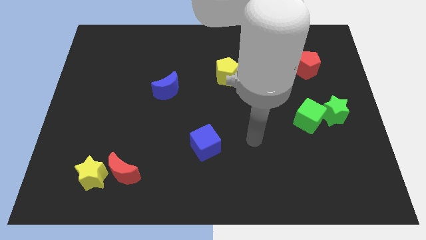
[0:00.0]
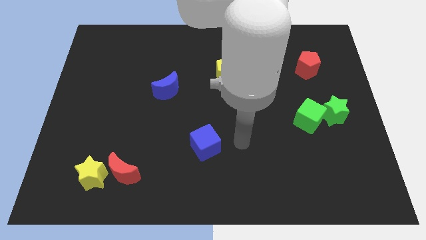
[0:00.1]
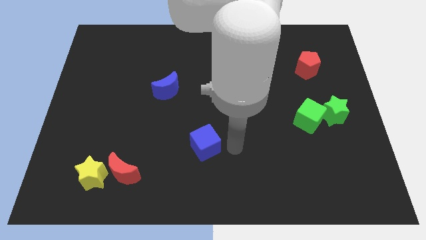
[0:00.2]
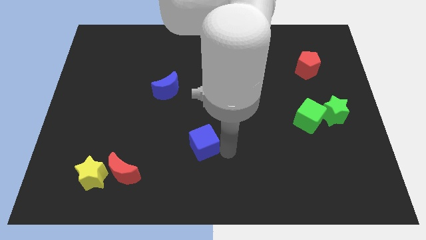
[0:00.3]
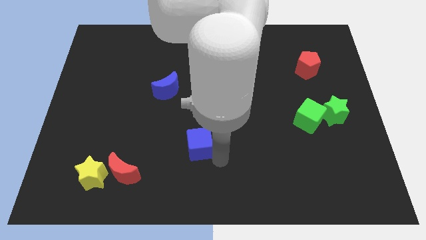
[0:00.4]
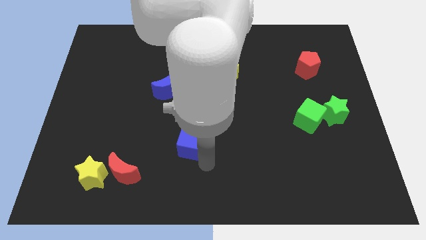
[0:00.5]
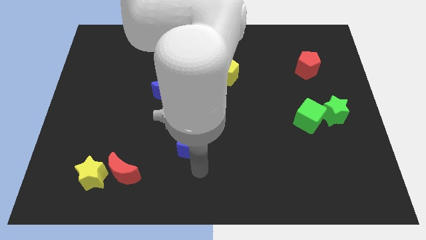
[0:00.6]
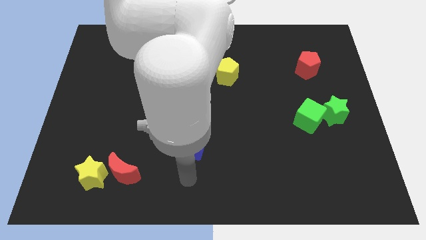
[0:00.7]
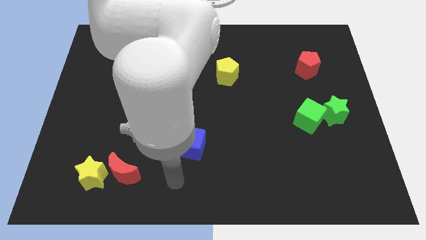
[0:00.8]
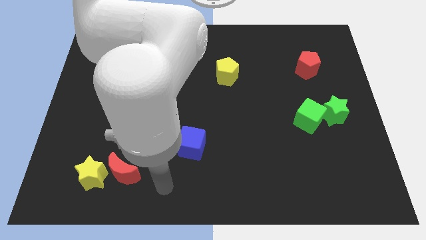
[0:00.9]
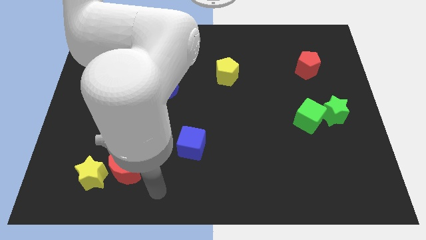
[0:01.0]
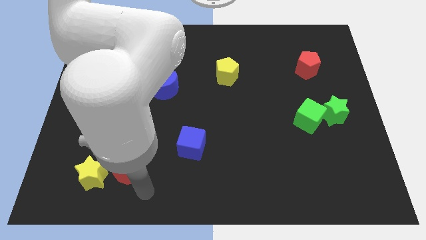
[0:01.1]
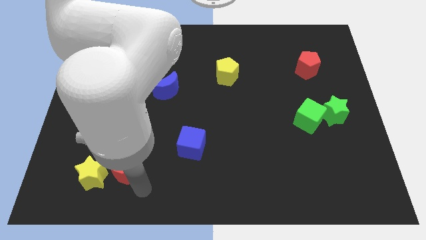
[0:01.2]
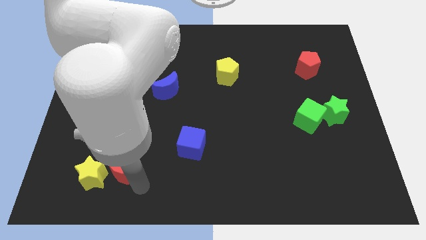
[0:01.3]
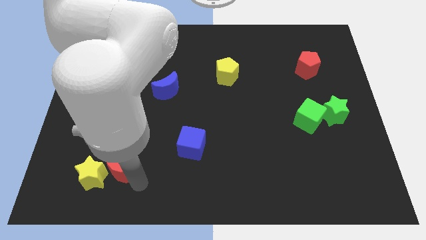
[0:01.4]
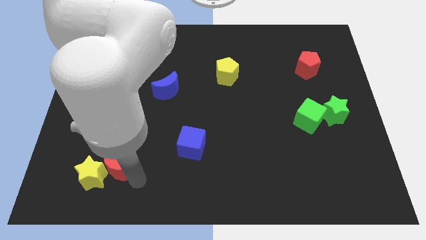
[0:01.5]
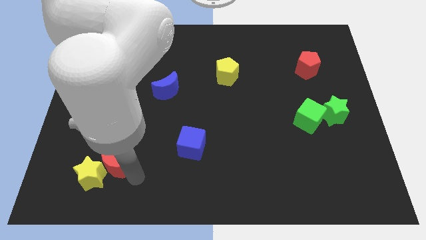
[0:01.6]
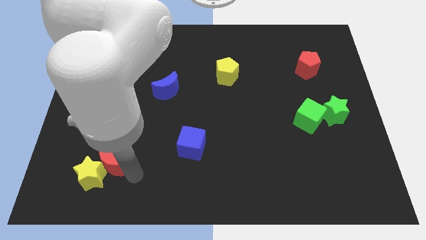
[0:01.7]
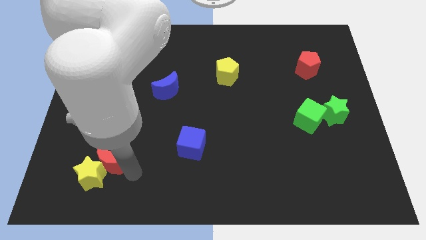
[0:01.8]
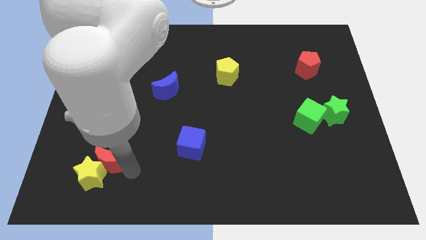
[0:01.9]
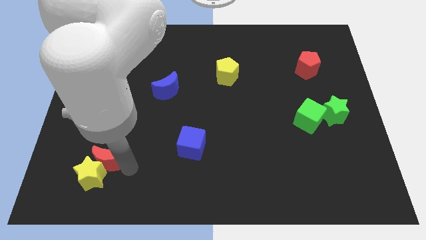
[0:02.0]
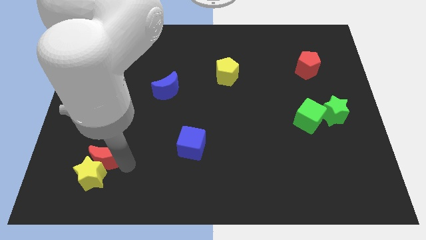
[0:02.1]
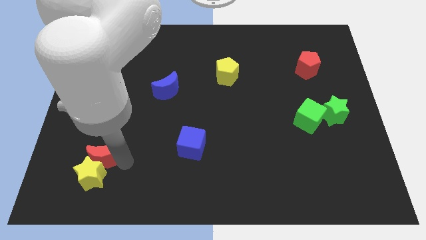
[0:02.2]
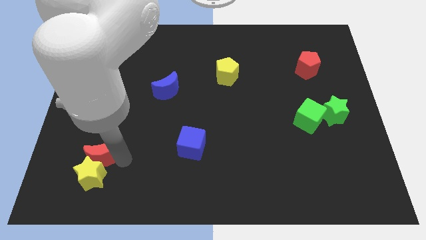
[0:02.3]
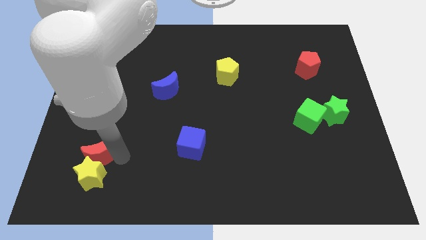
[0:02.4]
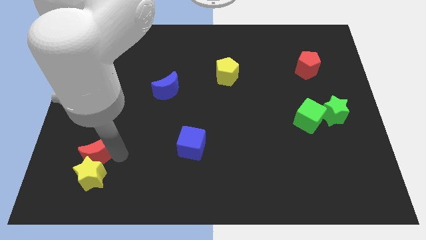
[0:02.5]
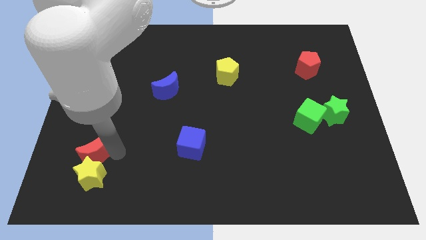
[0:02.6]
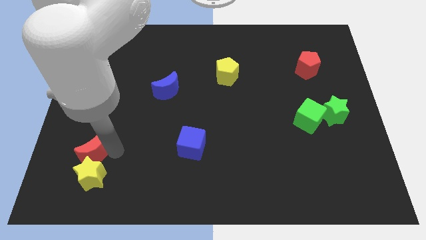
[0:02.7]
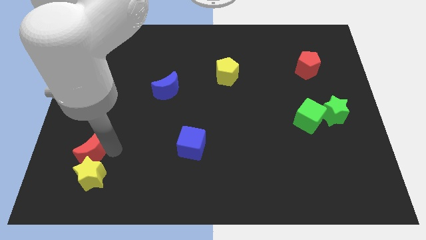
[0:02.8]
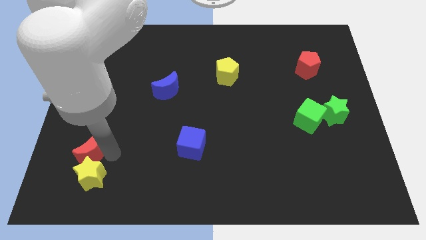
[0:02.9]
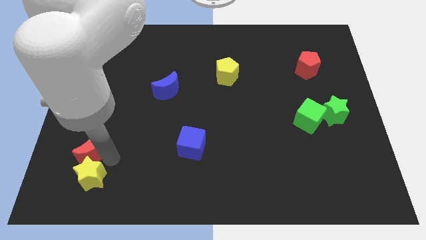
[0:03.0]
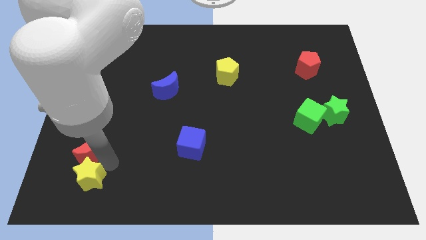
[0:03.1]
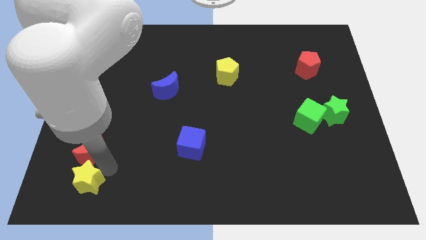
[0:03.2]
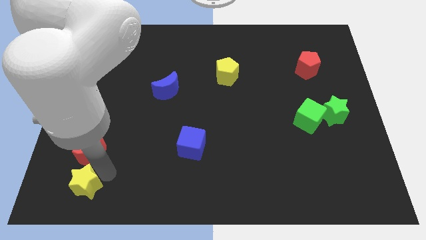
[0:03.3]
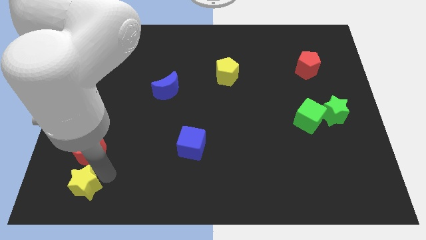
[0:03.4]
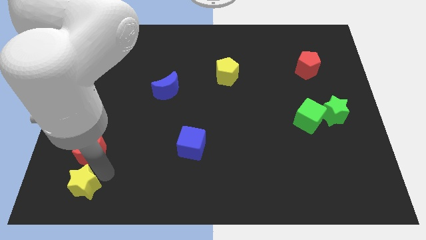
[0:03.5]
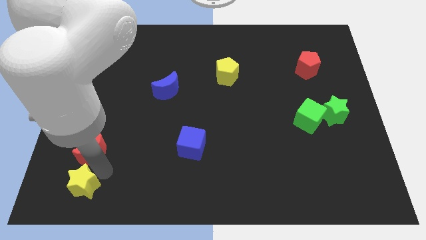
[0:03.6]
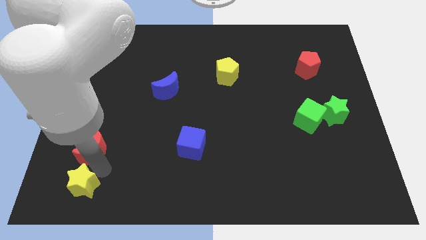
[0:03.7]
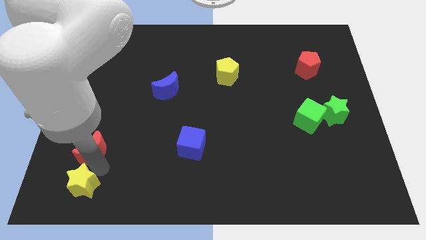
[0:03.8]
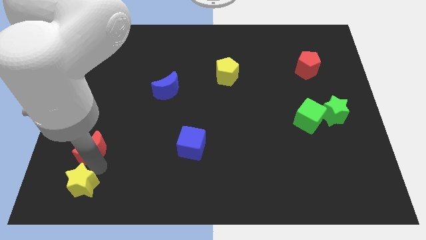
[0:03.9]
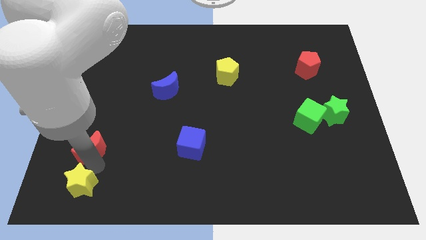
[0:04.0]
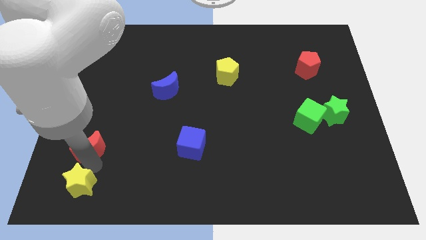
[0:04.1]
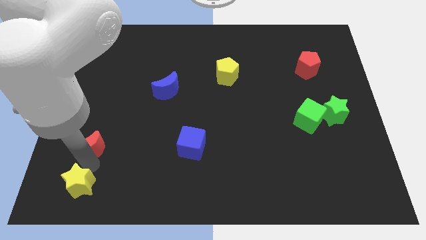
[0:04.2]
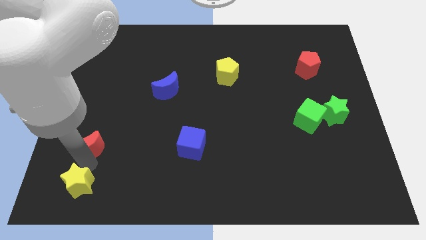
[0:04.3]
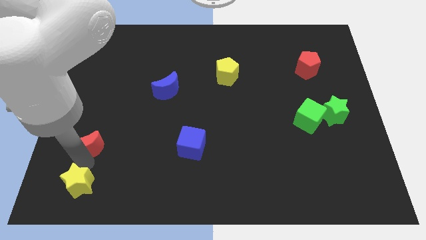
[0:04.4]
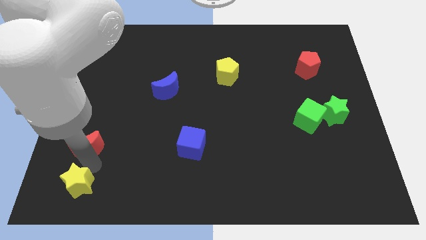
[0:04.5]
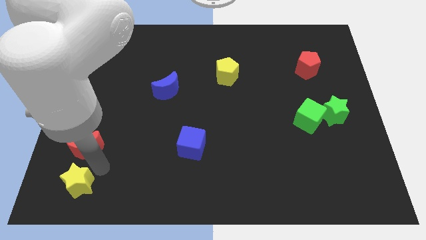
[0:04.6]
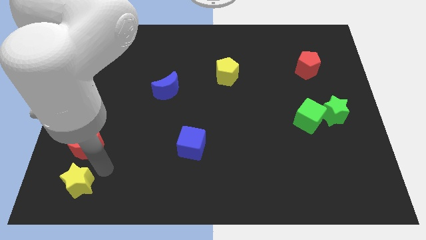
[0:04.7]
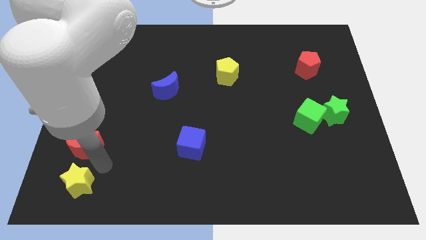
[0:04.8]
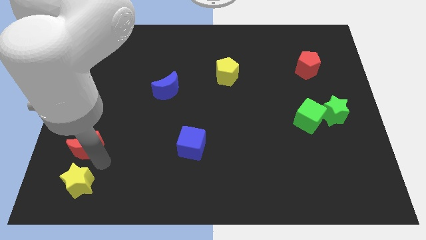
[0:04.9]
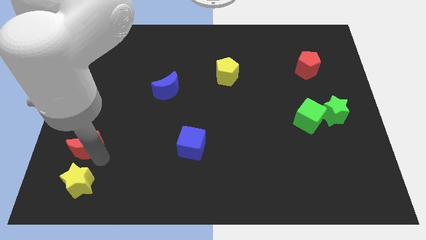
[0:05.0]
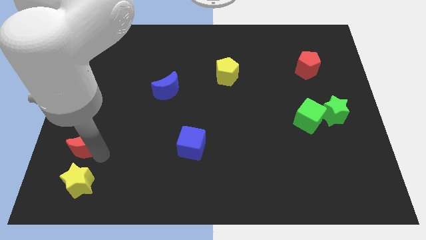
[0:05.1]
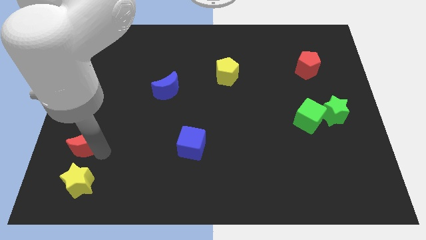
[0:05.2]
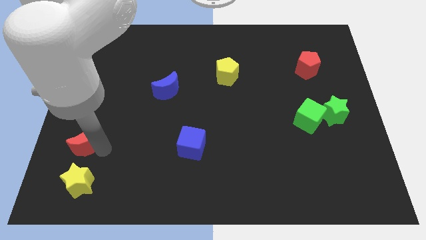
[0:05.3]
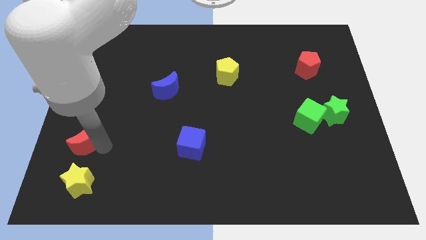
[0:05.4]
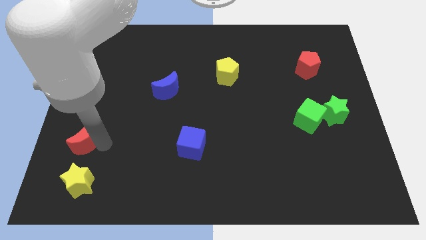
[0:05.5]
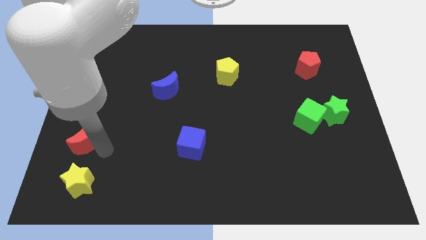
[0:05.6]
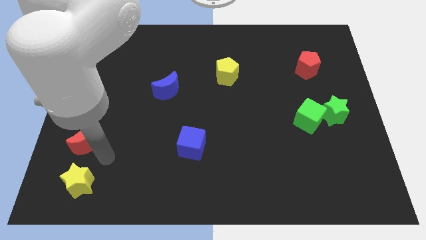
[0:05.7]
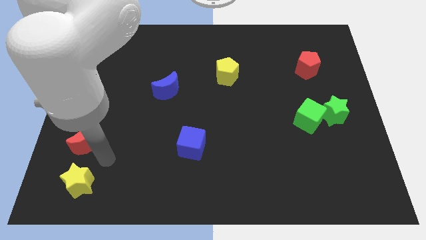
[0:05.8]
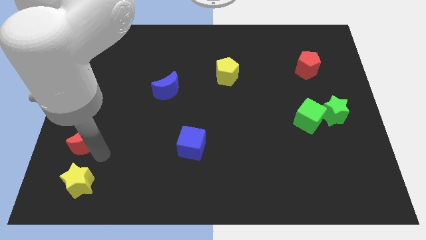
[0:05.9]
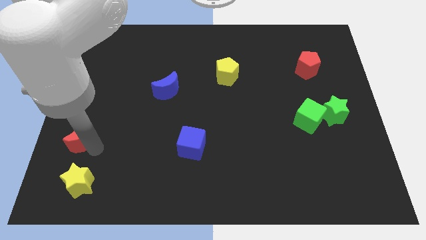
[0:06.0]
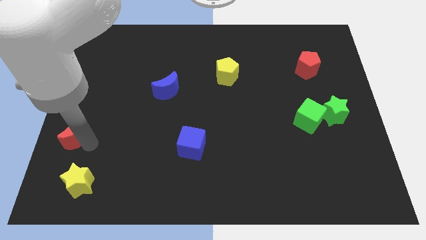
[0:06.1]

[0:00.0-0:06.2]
push the red moon to the left side

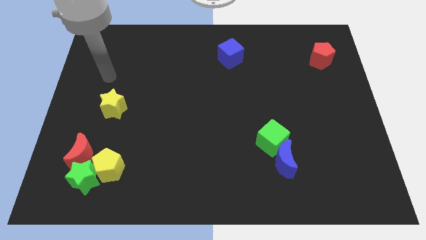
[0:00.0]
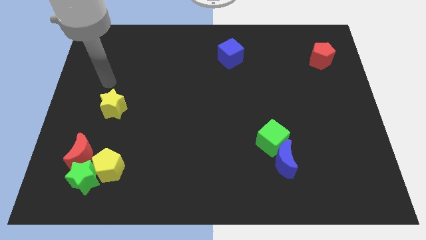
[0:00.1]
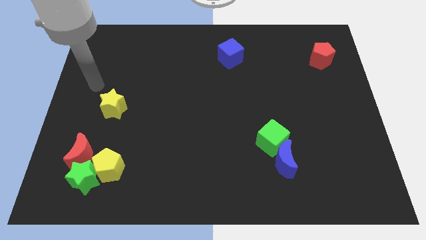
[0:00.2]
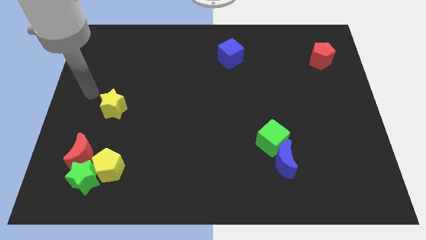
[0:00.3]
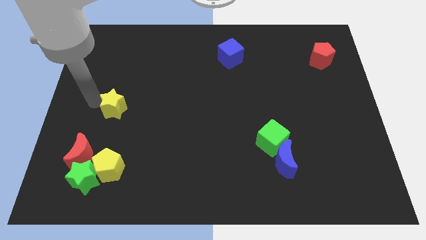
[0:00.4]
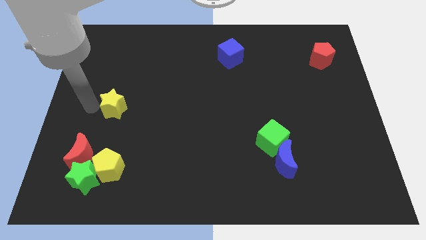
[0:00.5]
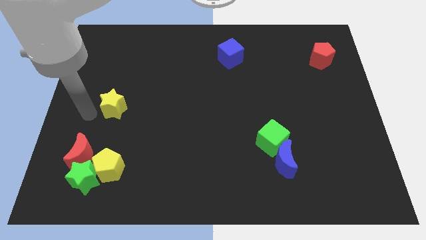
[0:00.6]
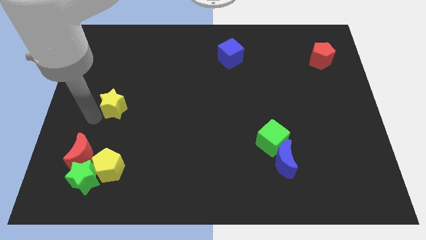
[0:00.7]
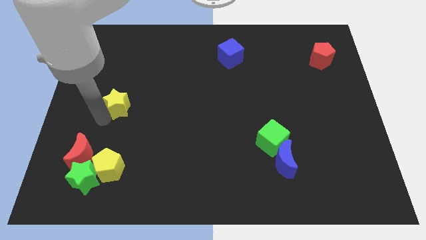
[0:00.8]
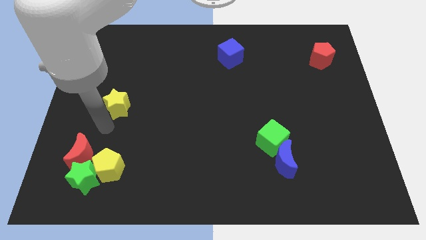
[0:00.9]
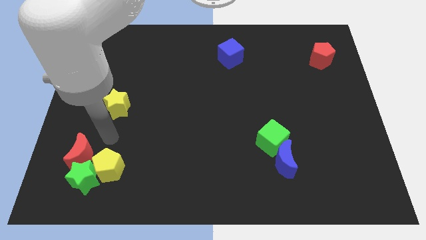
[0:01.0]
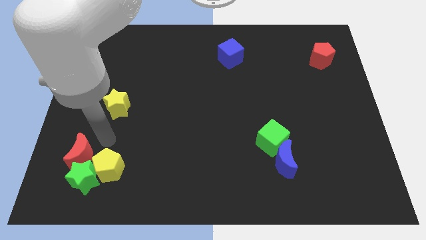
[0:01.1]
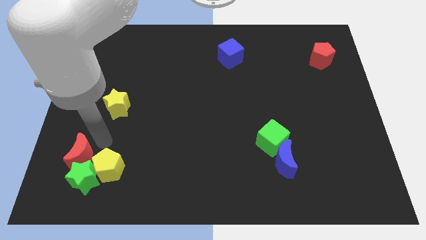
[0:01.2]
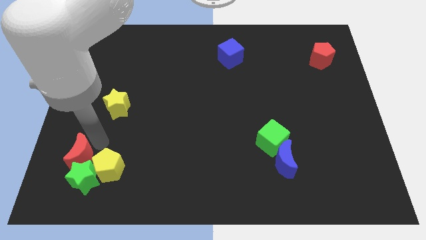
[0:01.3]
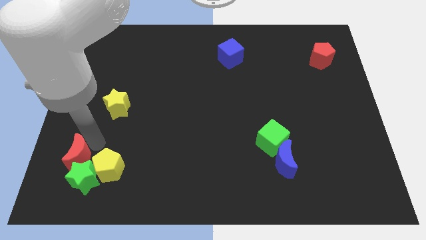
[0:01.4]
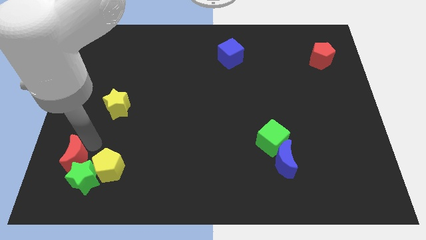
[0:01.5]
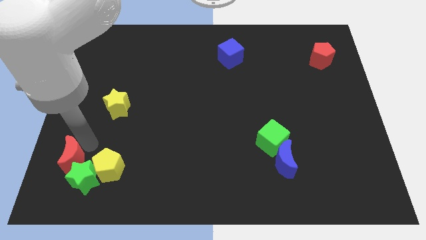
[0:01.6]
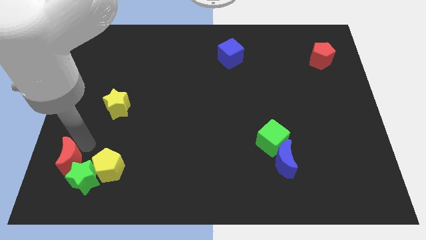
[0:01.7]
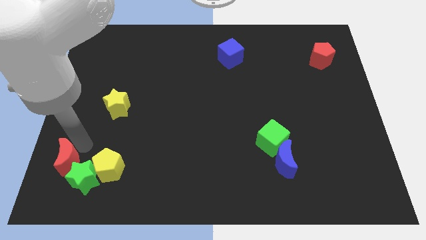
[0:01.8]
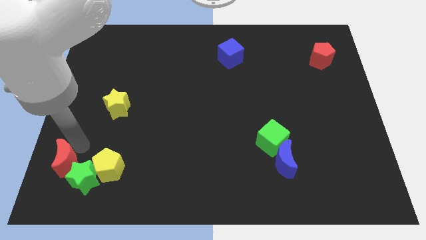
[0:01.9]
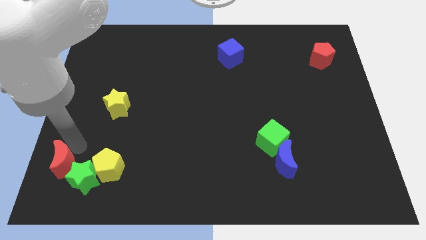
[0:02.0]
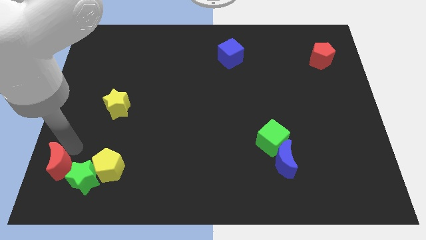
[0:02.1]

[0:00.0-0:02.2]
push the red moon to the lower left corner
